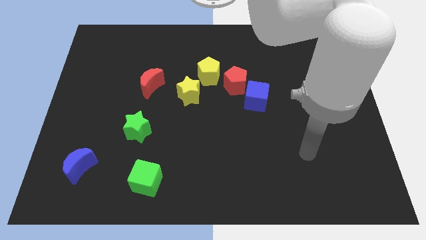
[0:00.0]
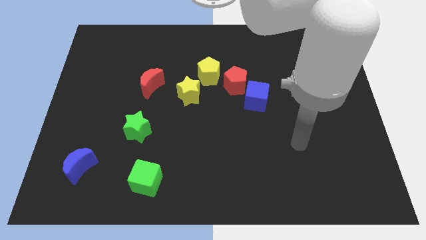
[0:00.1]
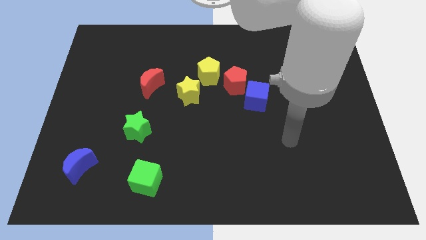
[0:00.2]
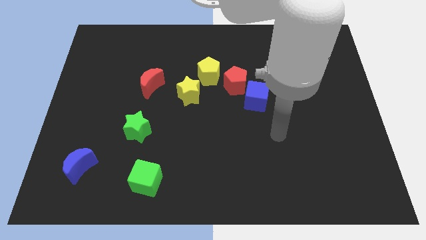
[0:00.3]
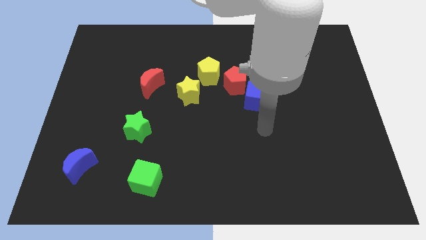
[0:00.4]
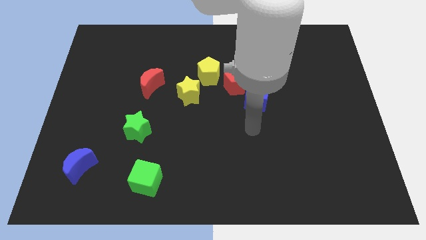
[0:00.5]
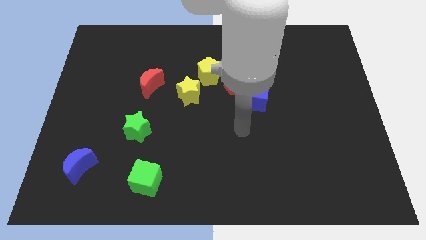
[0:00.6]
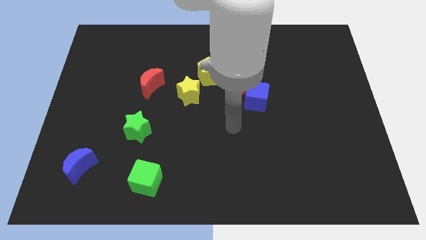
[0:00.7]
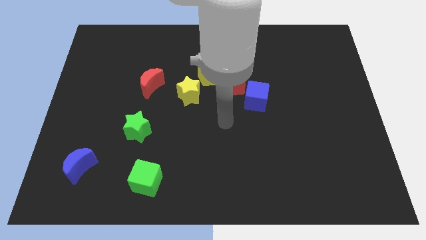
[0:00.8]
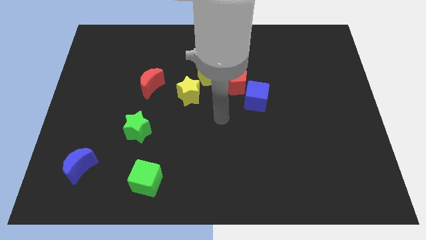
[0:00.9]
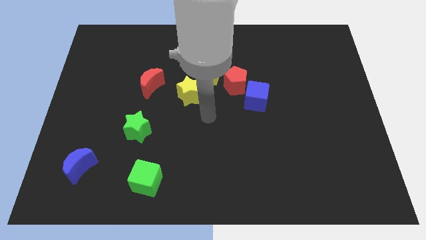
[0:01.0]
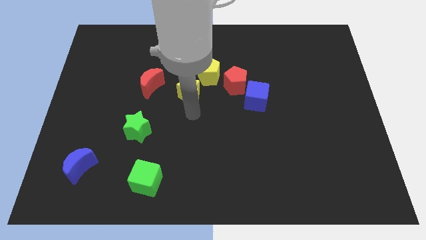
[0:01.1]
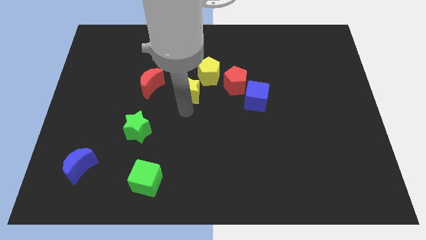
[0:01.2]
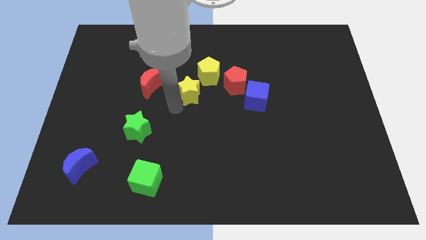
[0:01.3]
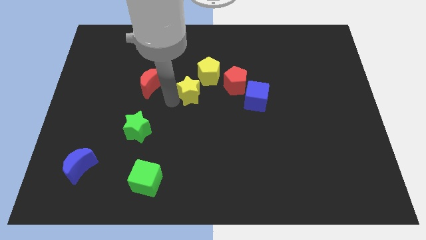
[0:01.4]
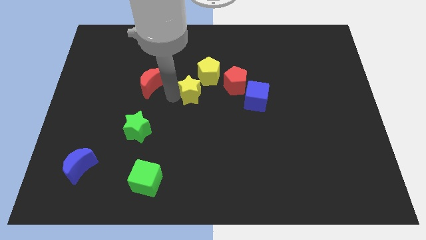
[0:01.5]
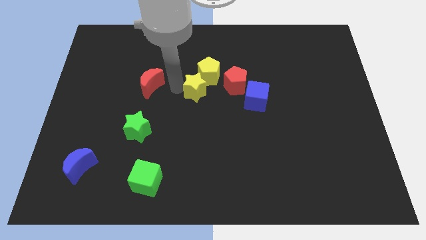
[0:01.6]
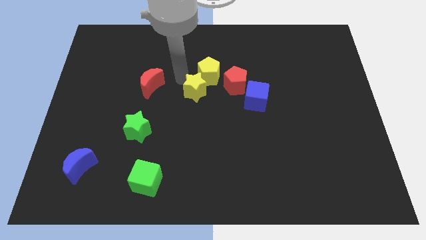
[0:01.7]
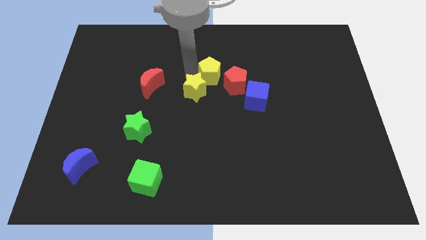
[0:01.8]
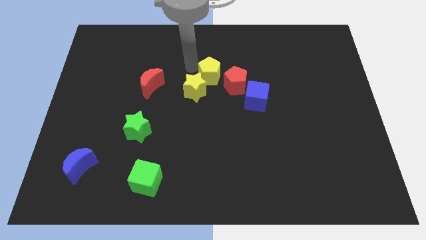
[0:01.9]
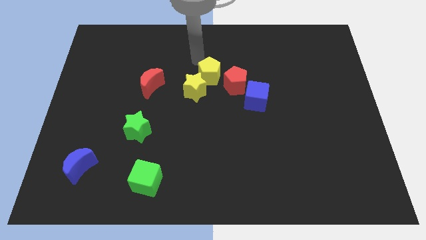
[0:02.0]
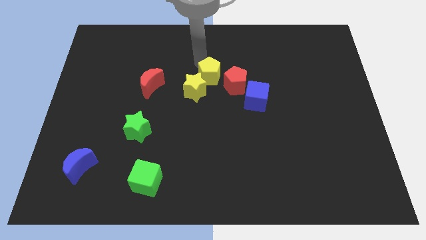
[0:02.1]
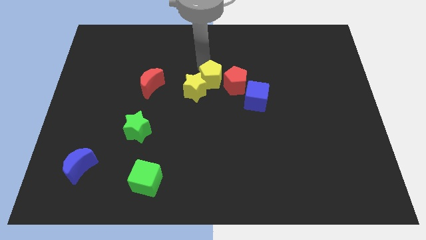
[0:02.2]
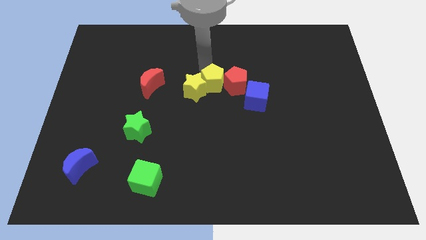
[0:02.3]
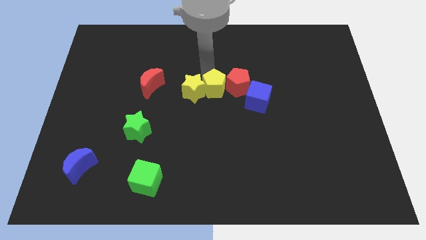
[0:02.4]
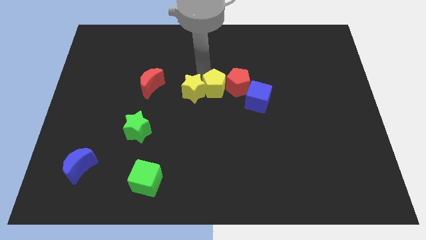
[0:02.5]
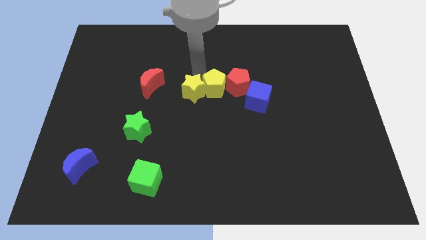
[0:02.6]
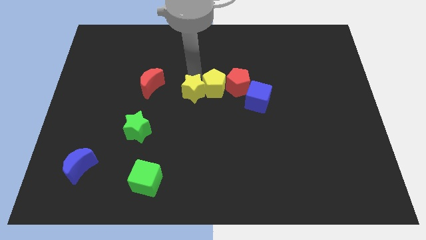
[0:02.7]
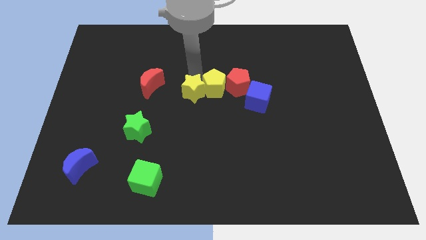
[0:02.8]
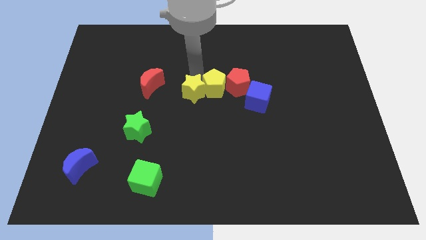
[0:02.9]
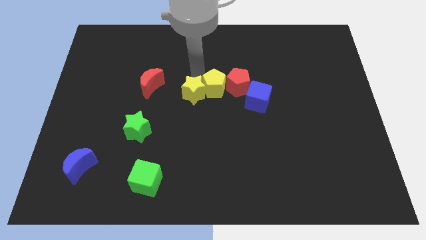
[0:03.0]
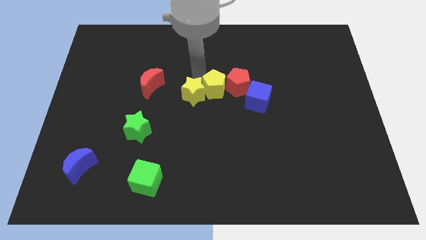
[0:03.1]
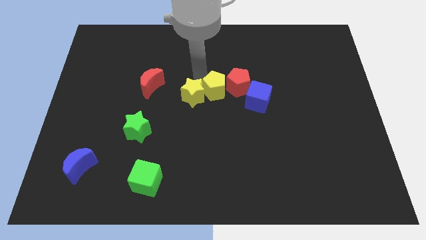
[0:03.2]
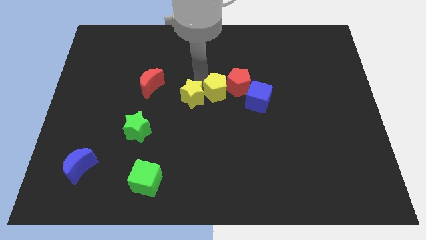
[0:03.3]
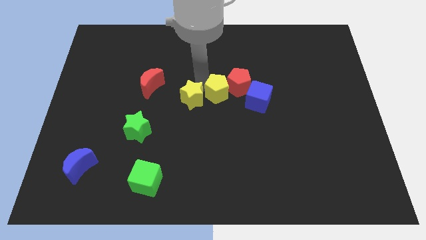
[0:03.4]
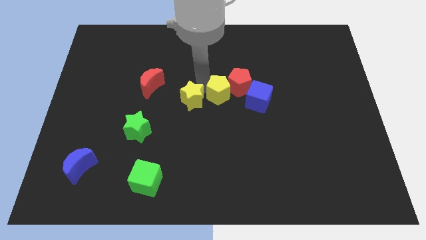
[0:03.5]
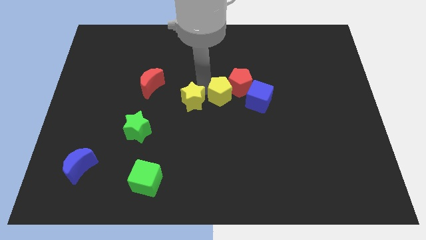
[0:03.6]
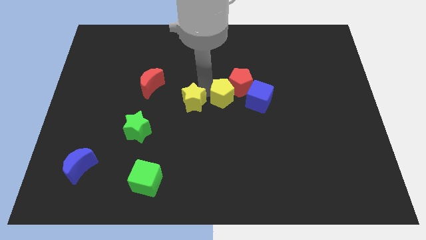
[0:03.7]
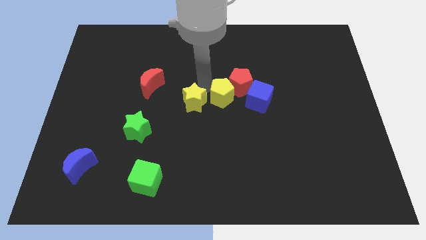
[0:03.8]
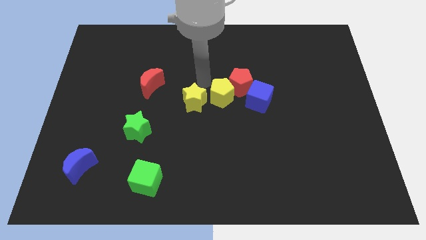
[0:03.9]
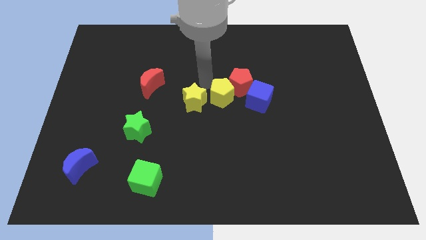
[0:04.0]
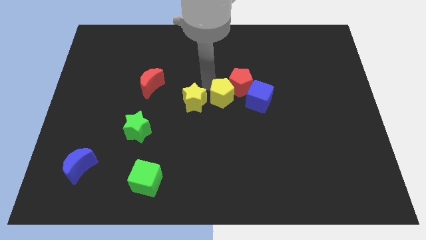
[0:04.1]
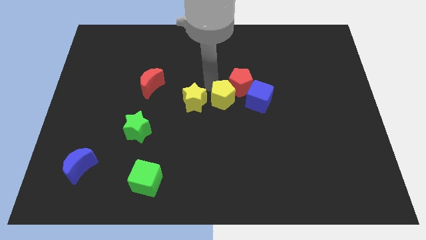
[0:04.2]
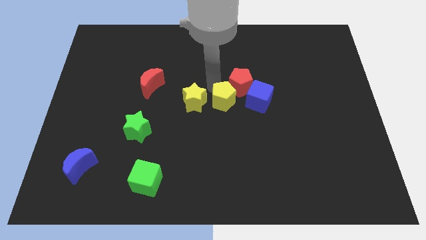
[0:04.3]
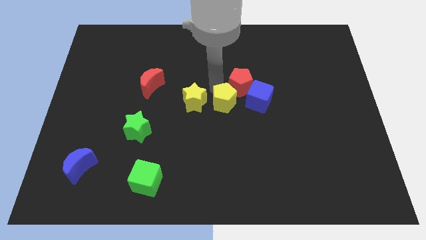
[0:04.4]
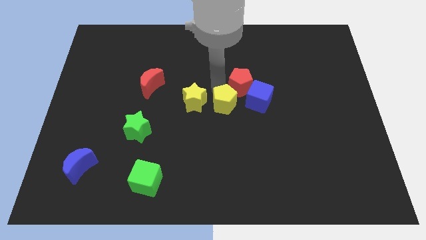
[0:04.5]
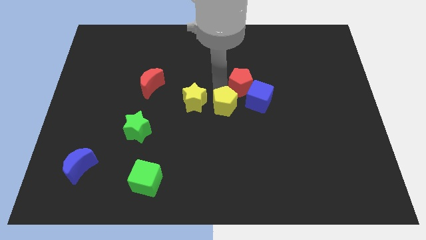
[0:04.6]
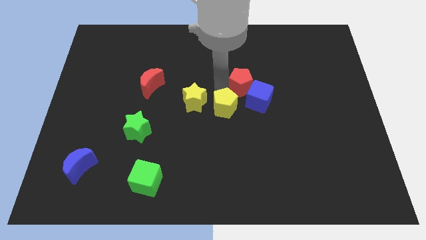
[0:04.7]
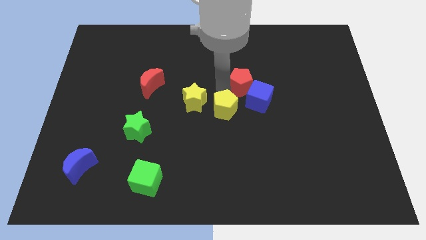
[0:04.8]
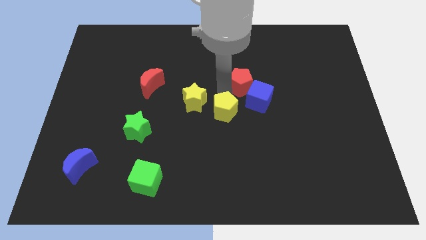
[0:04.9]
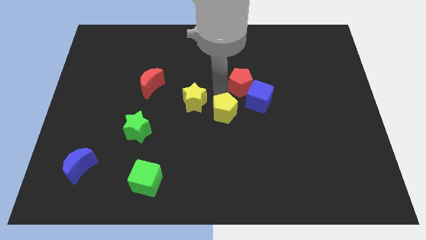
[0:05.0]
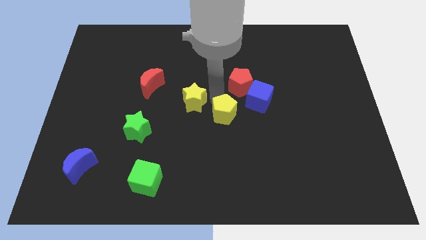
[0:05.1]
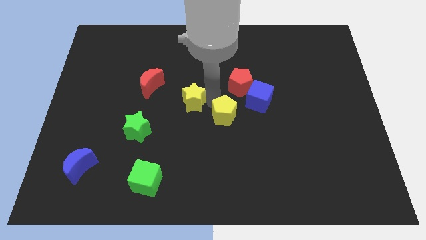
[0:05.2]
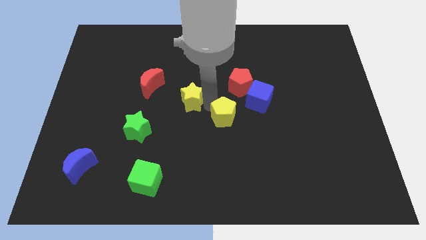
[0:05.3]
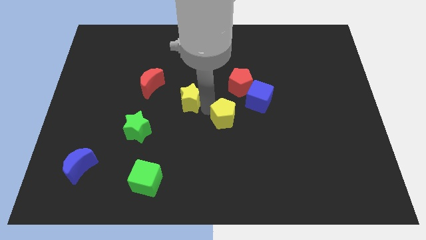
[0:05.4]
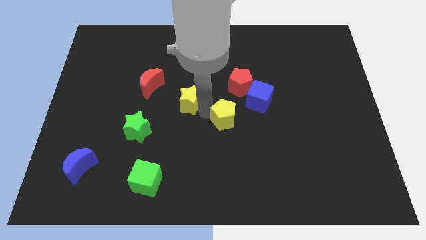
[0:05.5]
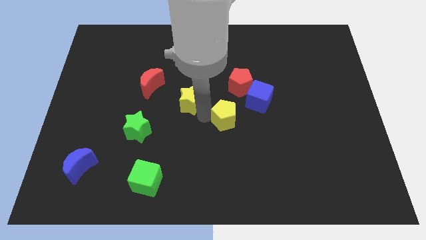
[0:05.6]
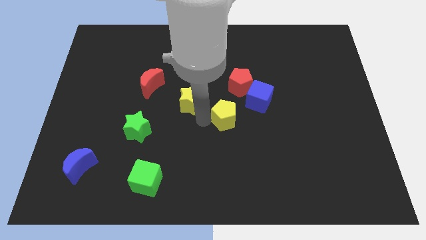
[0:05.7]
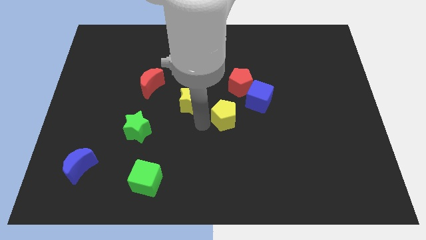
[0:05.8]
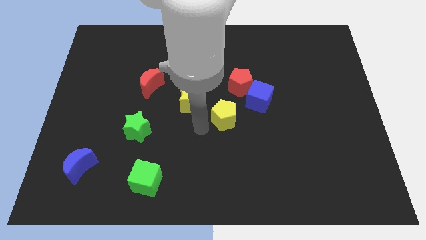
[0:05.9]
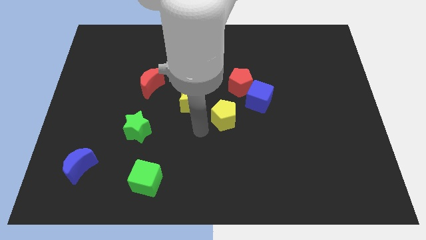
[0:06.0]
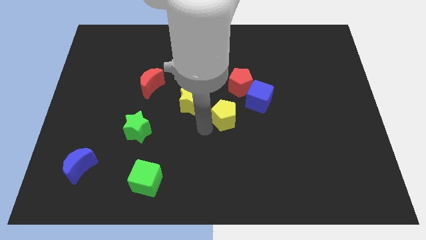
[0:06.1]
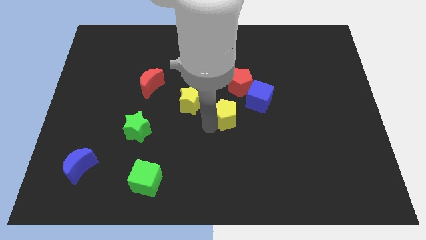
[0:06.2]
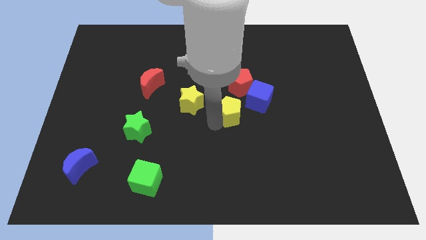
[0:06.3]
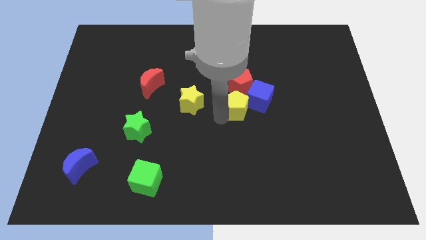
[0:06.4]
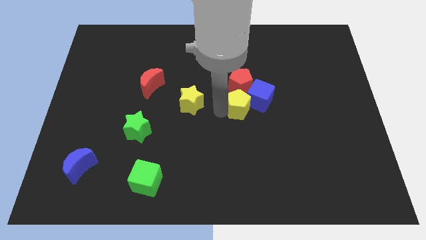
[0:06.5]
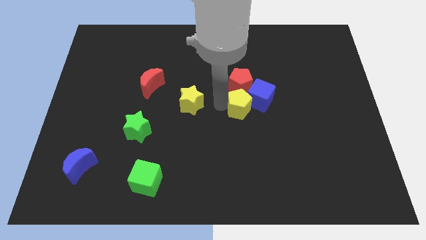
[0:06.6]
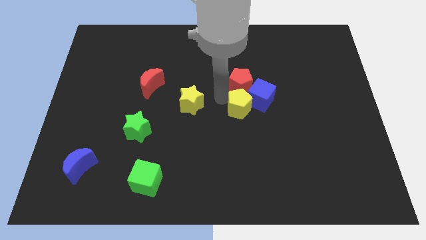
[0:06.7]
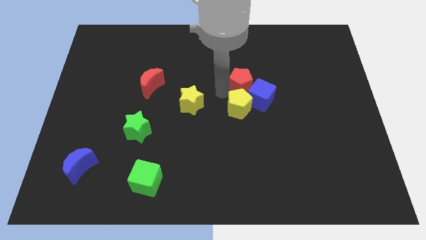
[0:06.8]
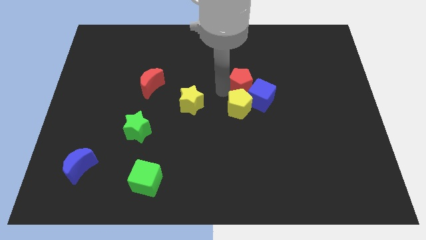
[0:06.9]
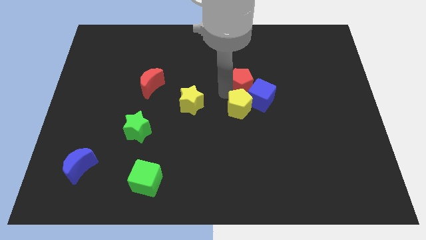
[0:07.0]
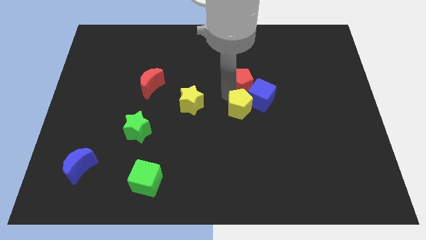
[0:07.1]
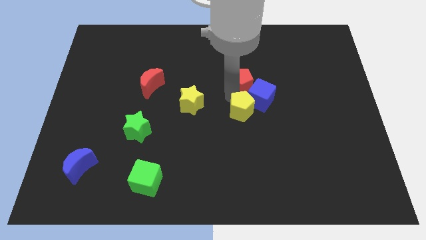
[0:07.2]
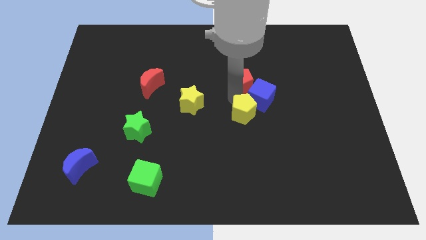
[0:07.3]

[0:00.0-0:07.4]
put the yellow pentagon to the bottom of the blue cube
